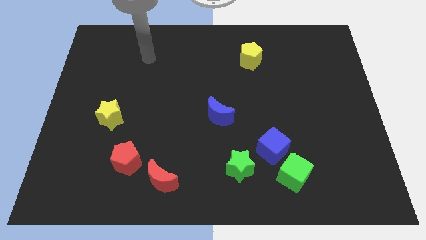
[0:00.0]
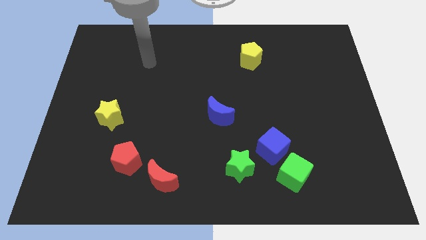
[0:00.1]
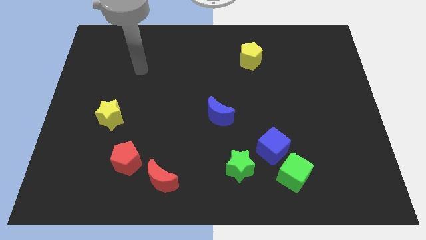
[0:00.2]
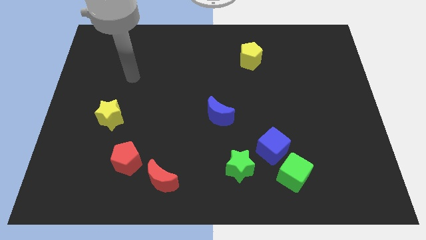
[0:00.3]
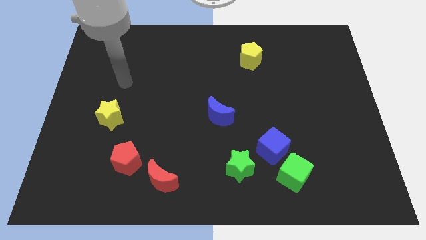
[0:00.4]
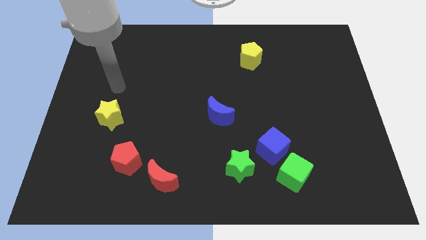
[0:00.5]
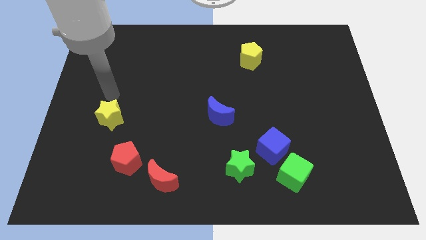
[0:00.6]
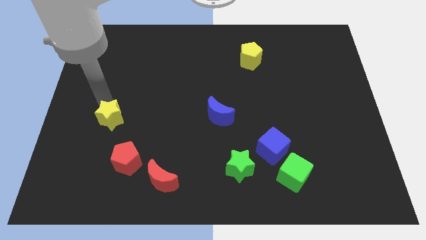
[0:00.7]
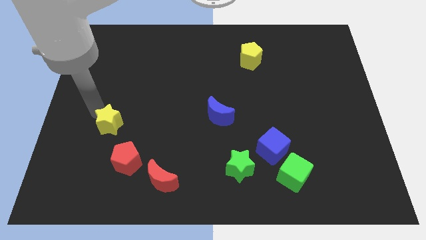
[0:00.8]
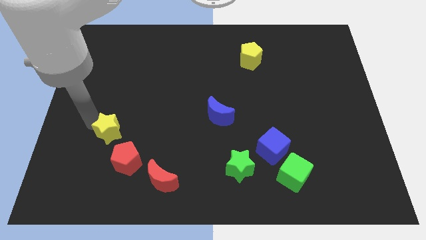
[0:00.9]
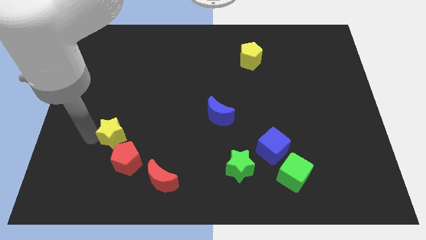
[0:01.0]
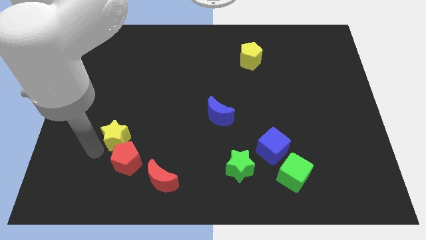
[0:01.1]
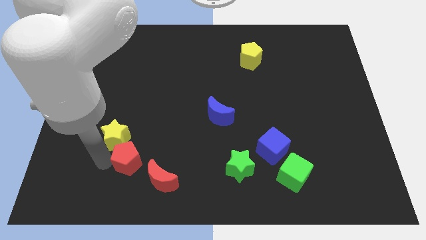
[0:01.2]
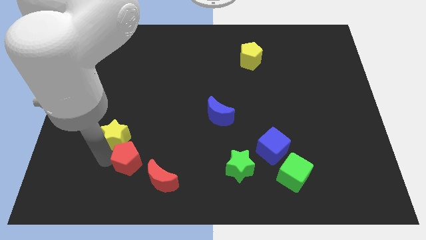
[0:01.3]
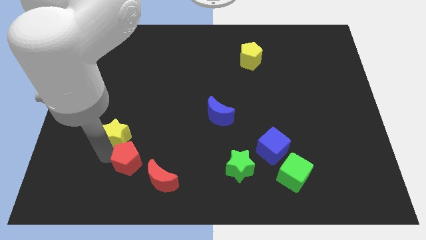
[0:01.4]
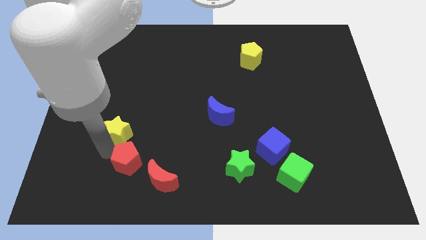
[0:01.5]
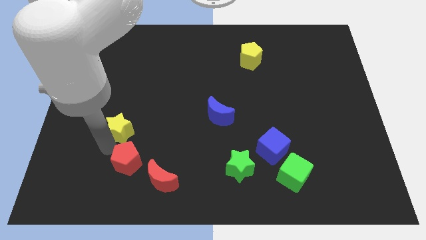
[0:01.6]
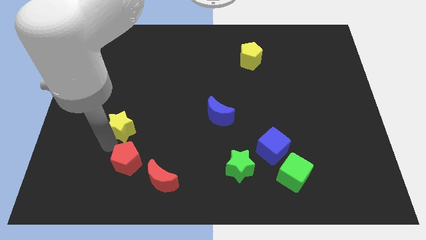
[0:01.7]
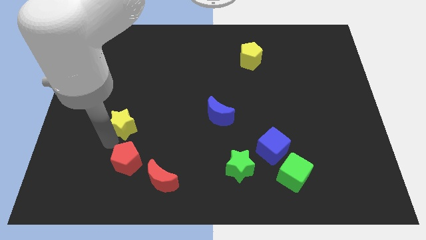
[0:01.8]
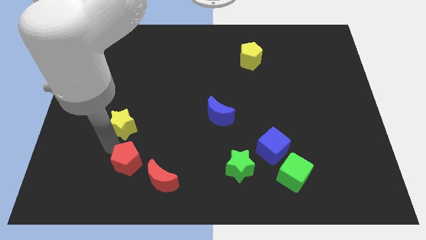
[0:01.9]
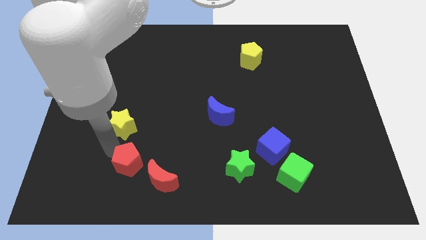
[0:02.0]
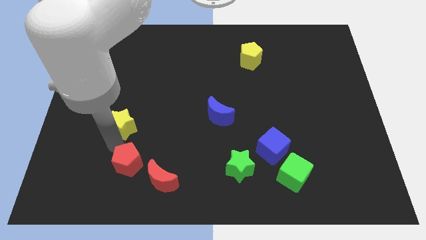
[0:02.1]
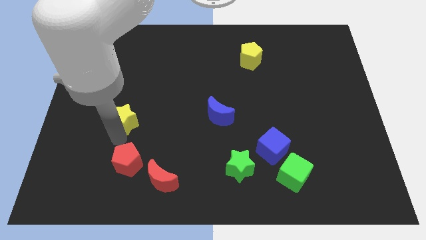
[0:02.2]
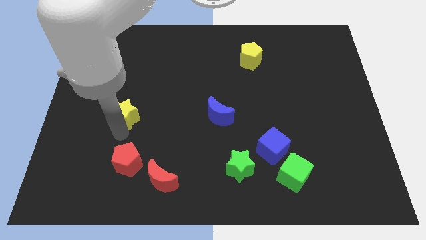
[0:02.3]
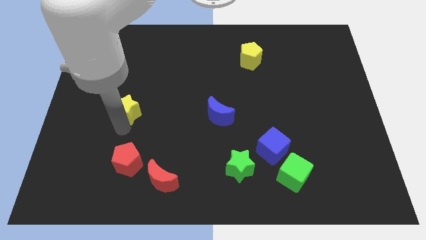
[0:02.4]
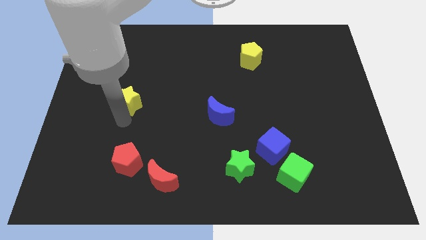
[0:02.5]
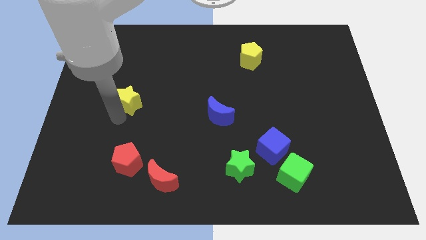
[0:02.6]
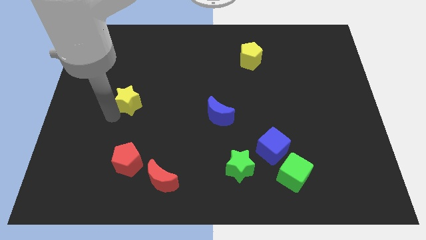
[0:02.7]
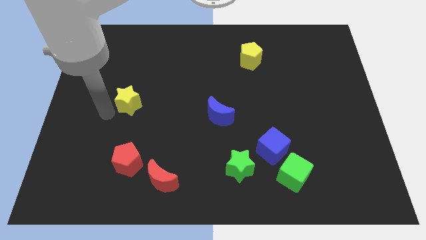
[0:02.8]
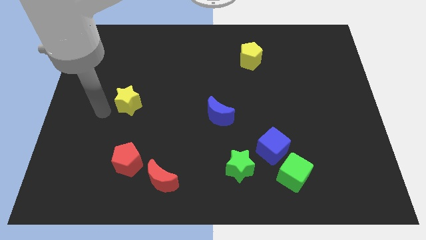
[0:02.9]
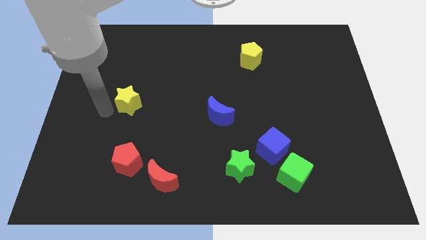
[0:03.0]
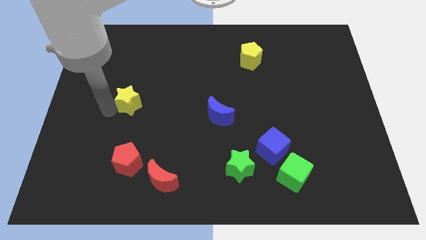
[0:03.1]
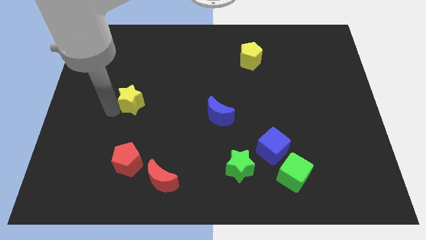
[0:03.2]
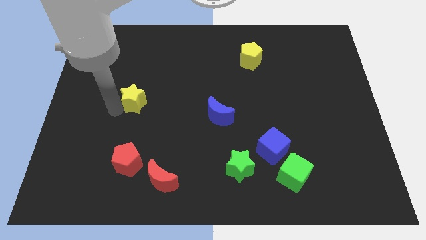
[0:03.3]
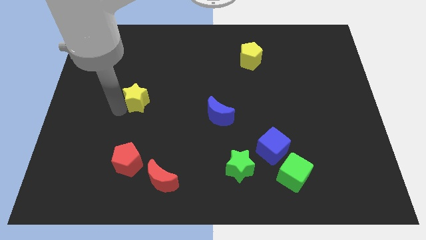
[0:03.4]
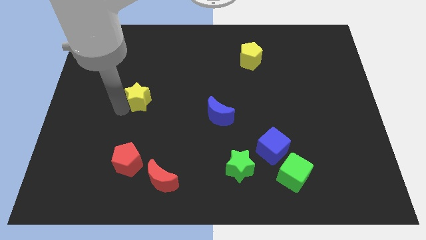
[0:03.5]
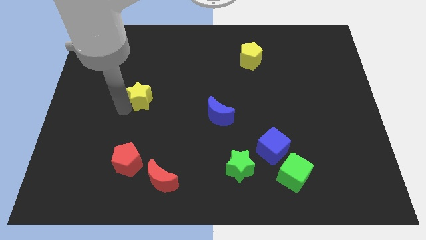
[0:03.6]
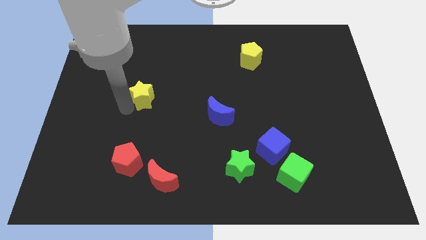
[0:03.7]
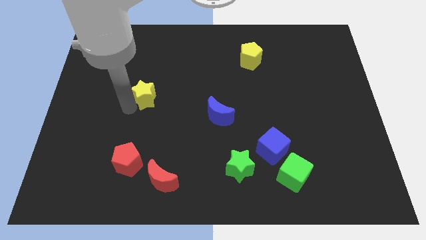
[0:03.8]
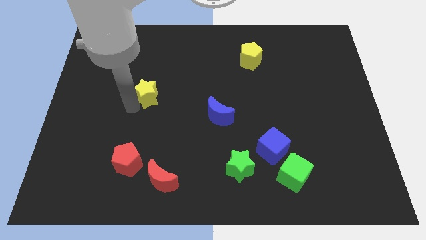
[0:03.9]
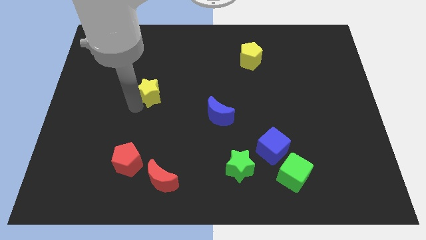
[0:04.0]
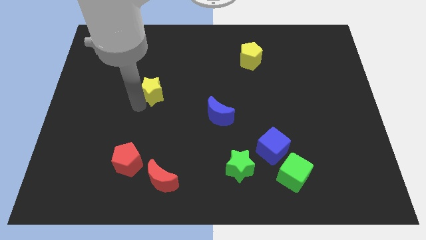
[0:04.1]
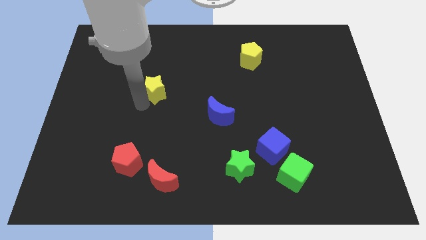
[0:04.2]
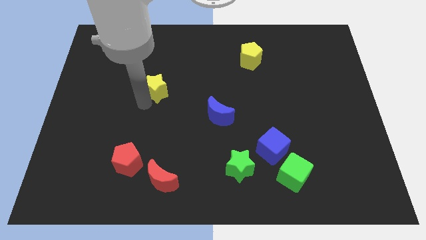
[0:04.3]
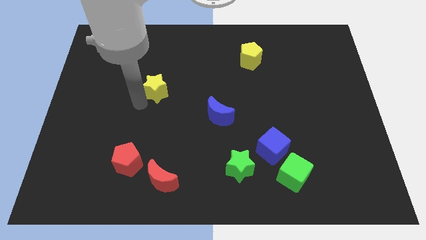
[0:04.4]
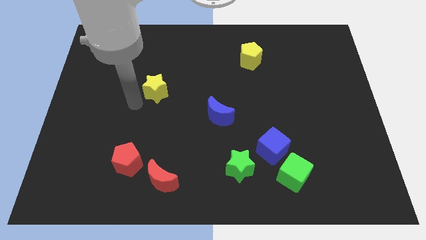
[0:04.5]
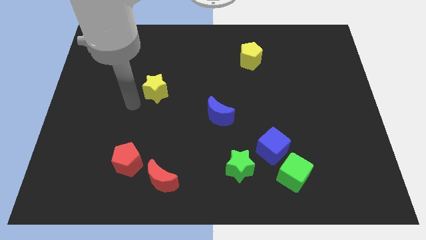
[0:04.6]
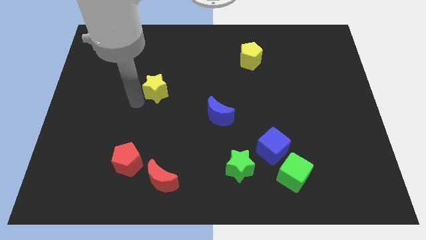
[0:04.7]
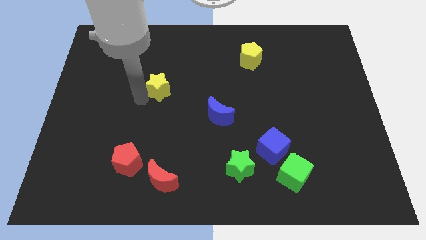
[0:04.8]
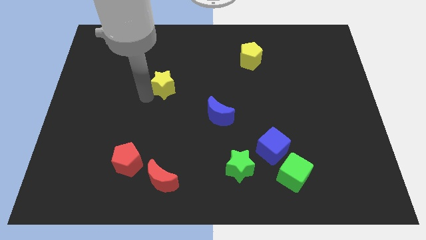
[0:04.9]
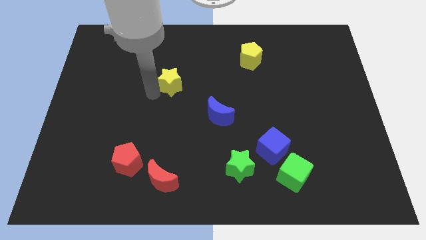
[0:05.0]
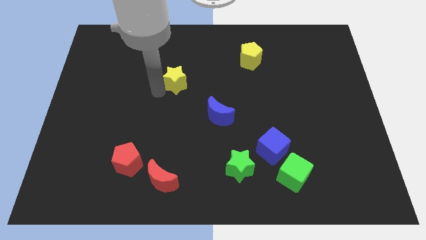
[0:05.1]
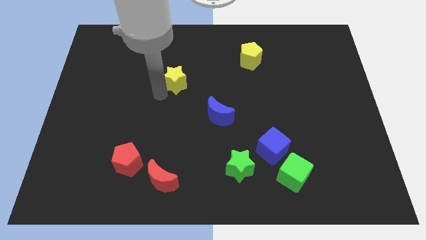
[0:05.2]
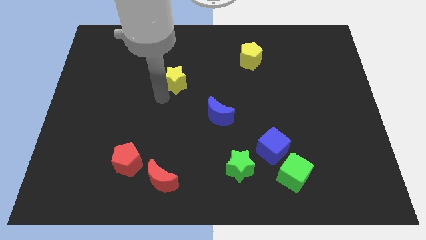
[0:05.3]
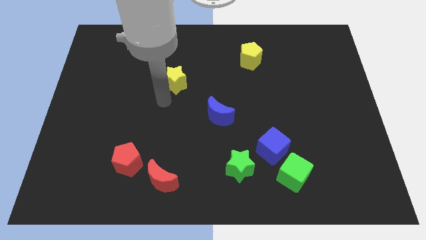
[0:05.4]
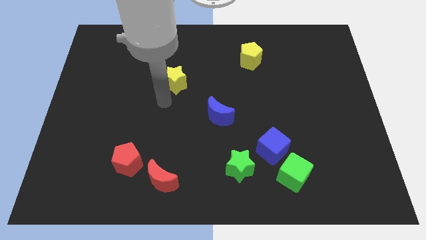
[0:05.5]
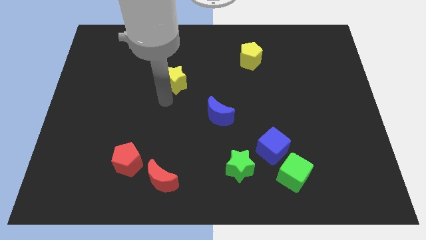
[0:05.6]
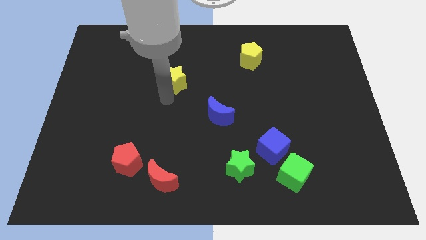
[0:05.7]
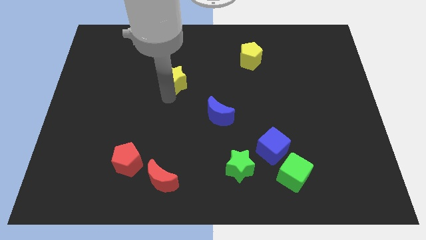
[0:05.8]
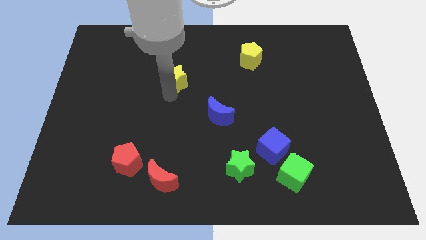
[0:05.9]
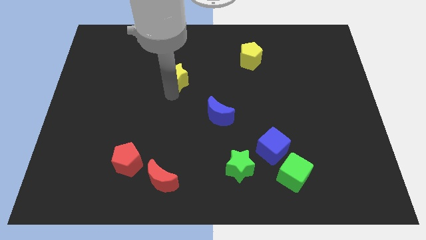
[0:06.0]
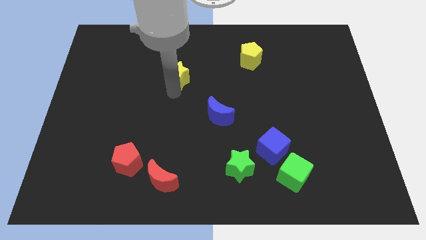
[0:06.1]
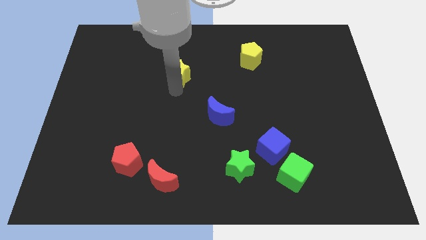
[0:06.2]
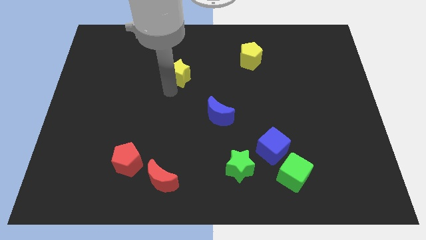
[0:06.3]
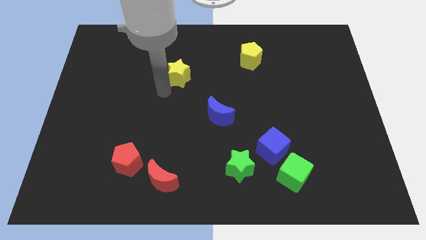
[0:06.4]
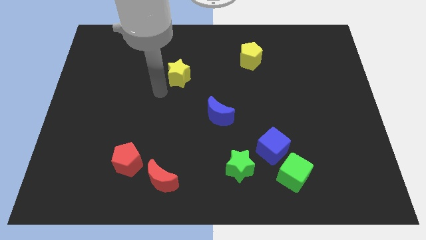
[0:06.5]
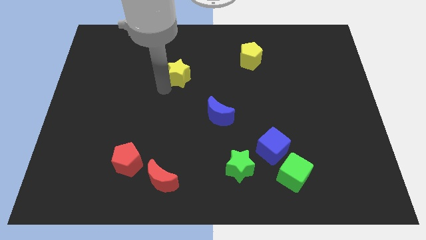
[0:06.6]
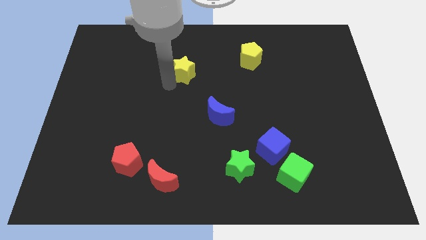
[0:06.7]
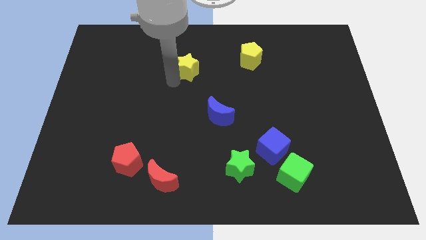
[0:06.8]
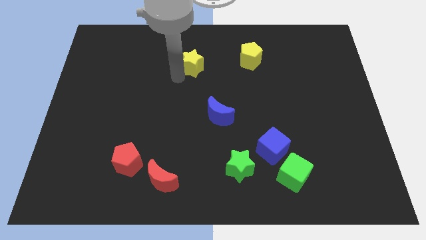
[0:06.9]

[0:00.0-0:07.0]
push the yellow star to the left of the yellow pentagon
